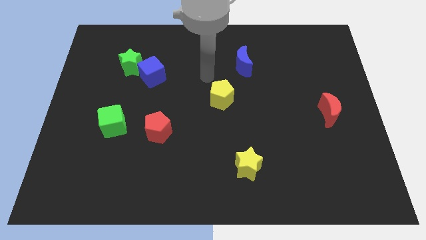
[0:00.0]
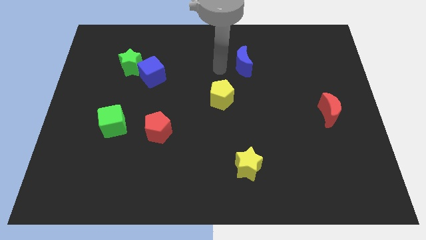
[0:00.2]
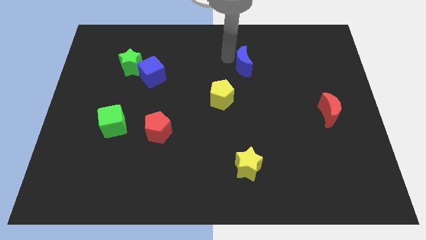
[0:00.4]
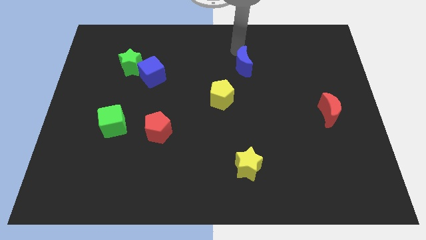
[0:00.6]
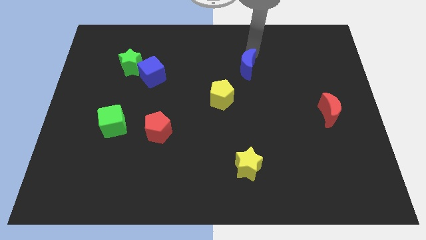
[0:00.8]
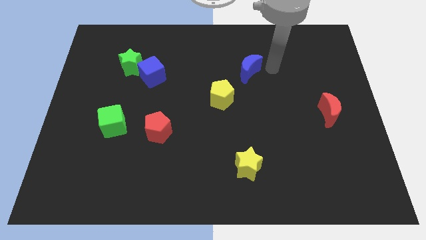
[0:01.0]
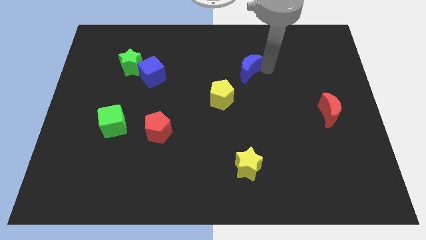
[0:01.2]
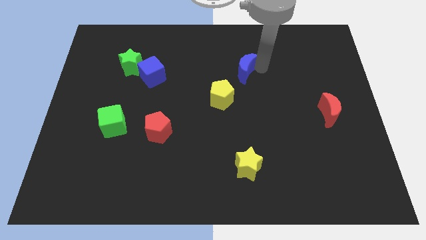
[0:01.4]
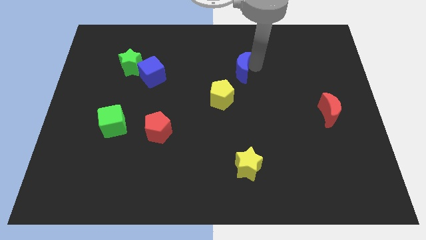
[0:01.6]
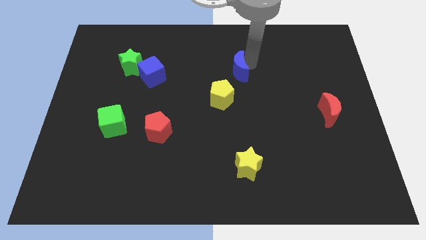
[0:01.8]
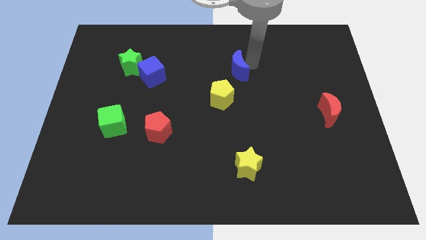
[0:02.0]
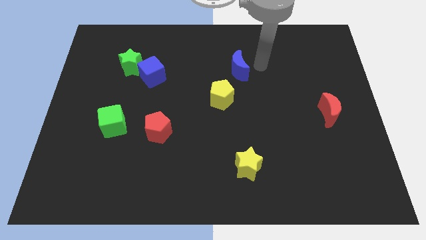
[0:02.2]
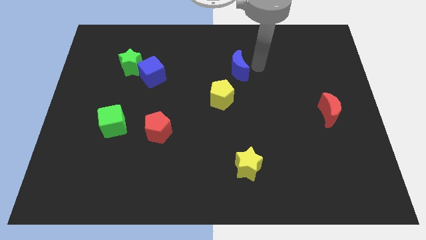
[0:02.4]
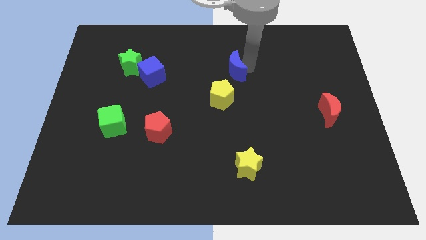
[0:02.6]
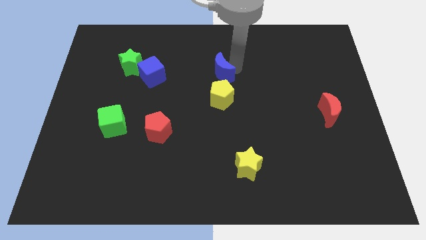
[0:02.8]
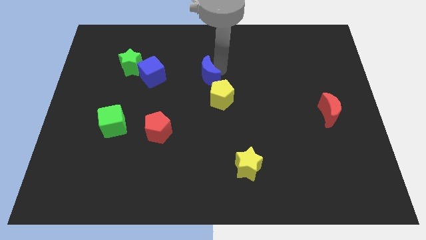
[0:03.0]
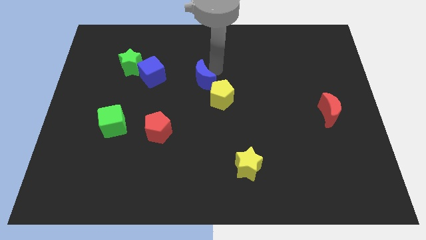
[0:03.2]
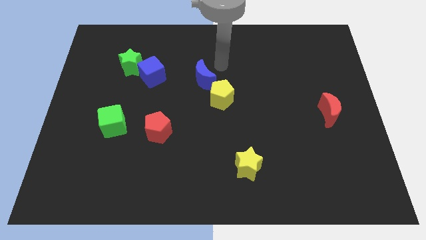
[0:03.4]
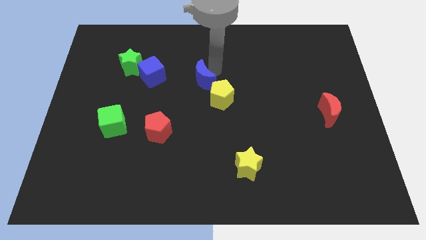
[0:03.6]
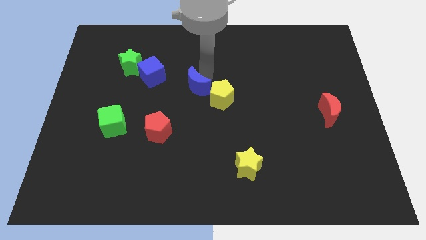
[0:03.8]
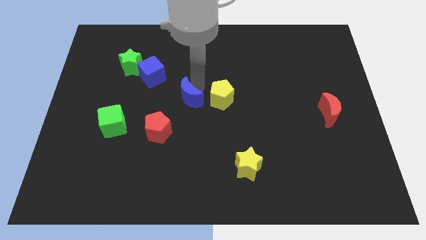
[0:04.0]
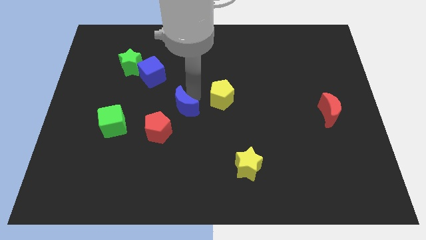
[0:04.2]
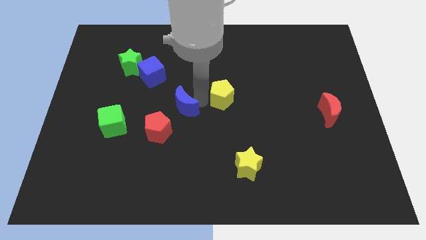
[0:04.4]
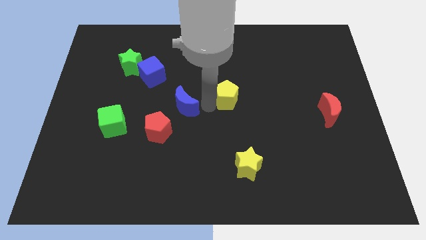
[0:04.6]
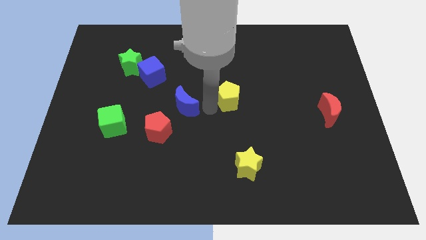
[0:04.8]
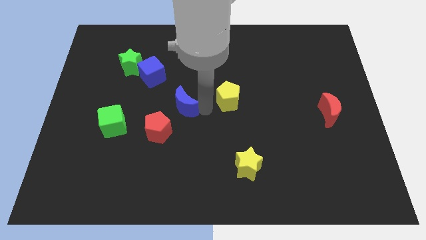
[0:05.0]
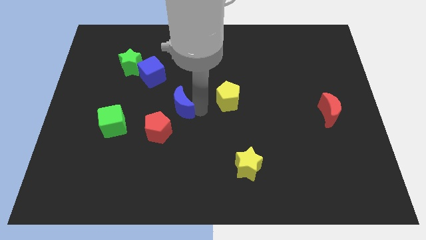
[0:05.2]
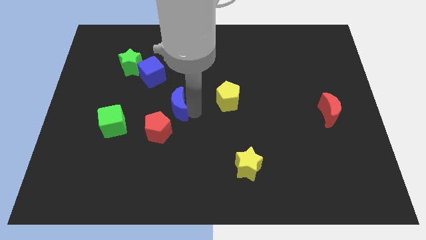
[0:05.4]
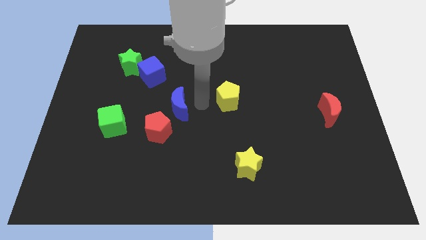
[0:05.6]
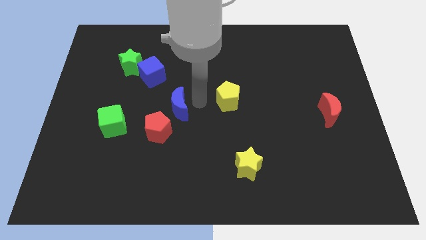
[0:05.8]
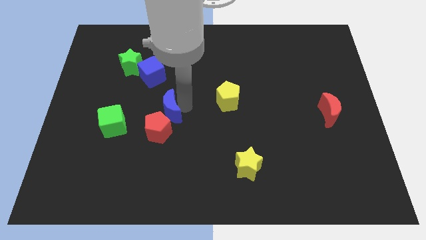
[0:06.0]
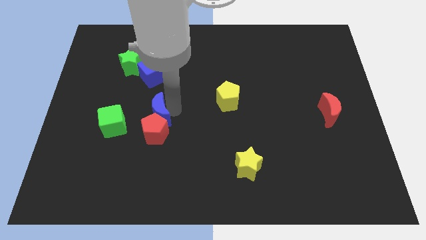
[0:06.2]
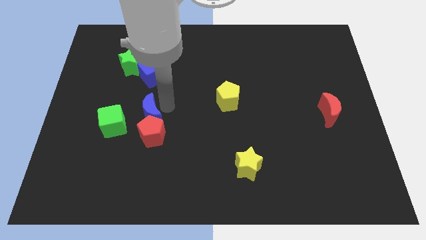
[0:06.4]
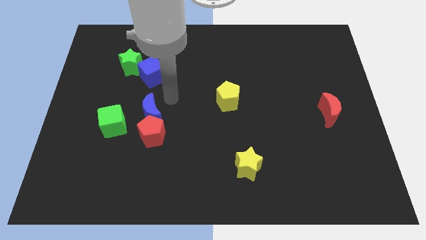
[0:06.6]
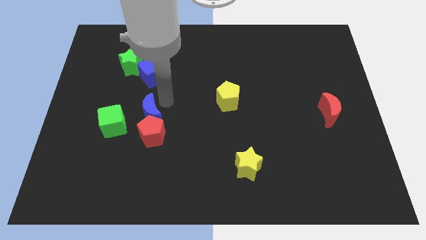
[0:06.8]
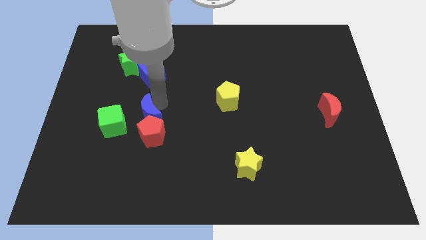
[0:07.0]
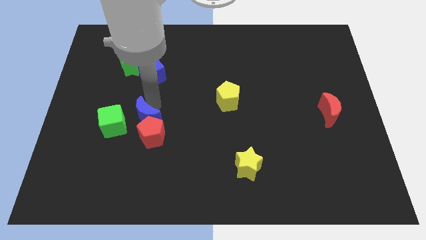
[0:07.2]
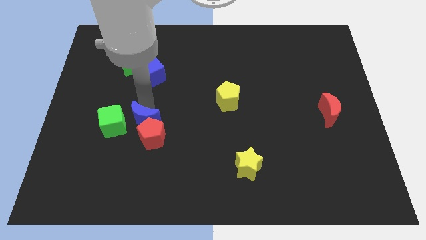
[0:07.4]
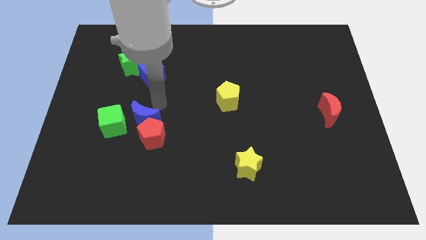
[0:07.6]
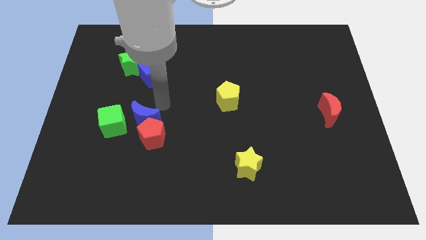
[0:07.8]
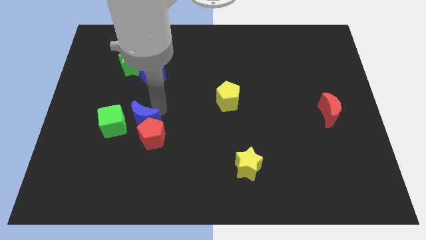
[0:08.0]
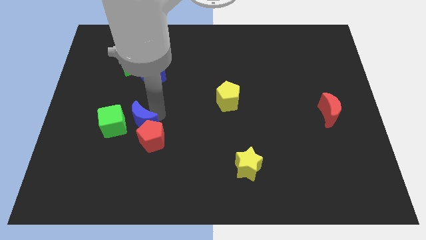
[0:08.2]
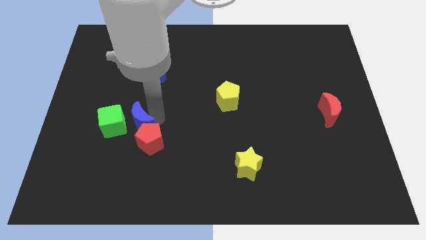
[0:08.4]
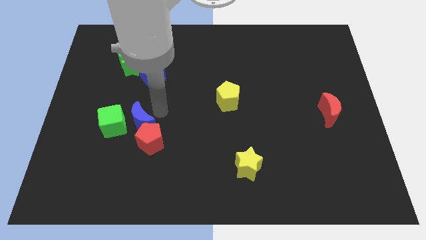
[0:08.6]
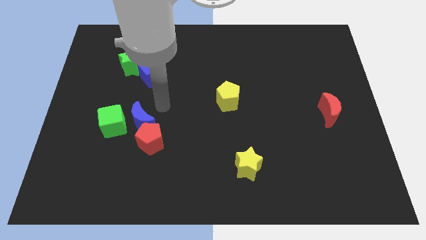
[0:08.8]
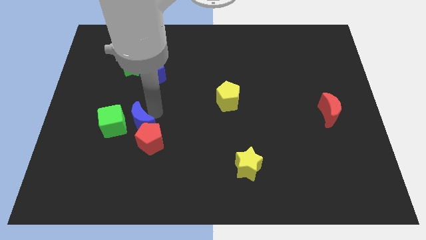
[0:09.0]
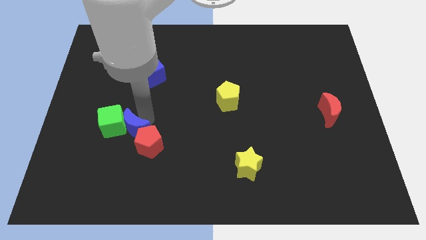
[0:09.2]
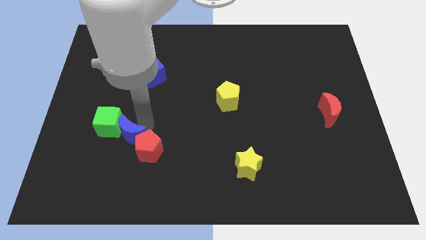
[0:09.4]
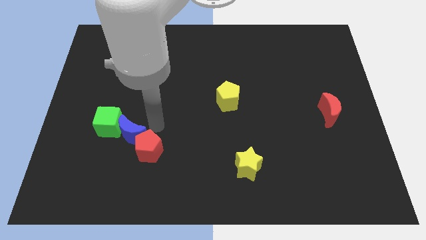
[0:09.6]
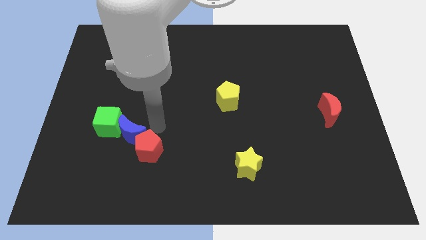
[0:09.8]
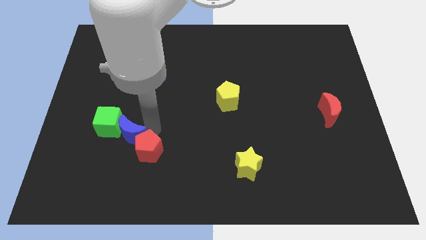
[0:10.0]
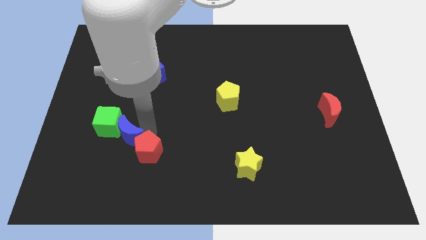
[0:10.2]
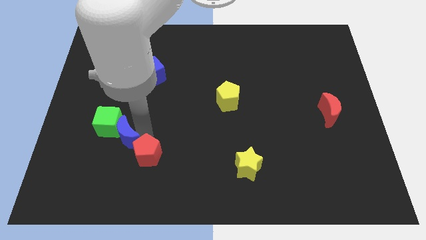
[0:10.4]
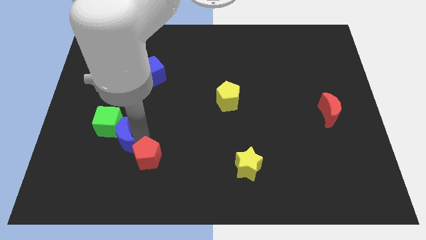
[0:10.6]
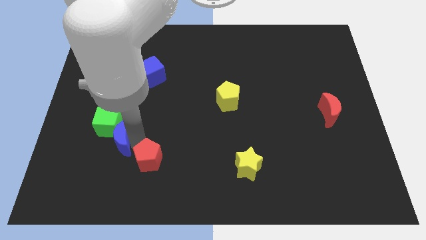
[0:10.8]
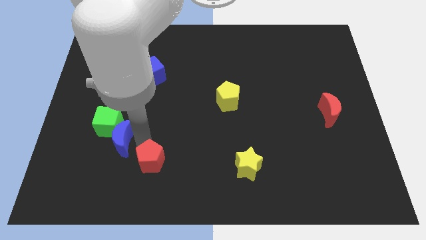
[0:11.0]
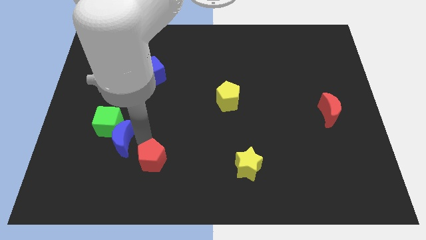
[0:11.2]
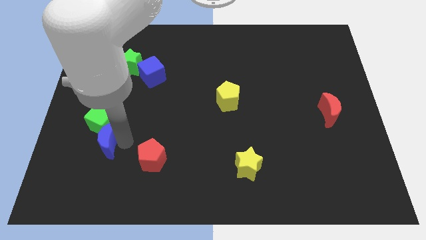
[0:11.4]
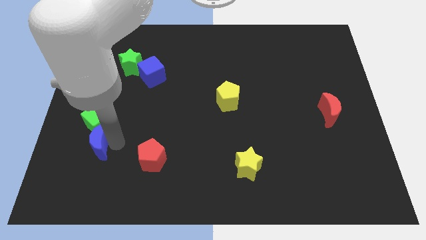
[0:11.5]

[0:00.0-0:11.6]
push the blue moon to the bottom left of the green cube

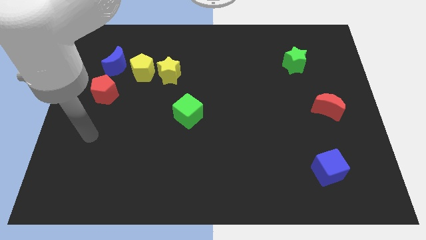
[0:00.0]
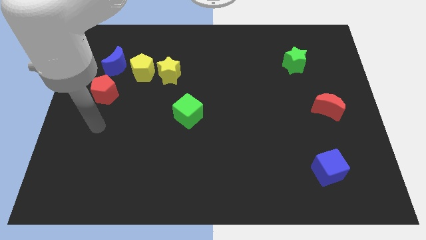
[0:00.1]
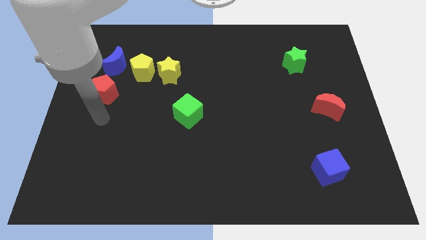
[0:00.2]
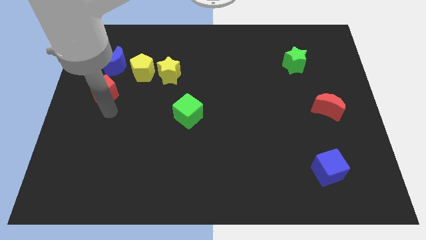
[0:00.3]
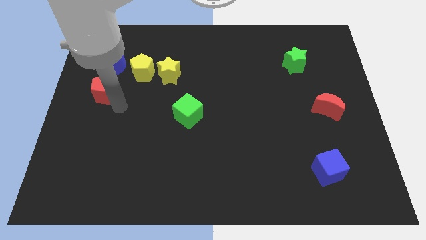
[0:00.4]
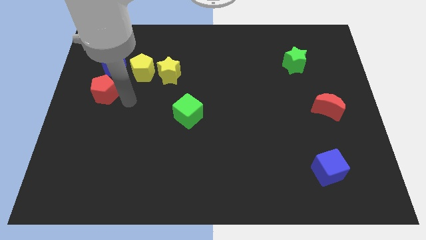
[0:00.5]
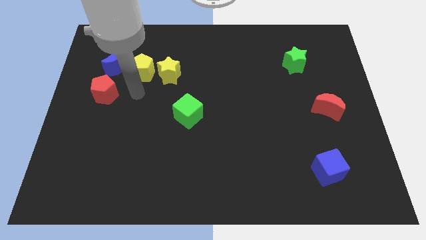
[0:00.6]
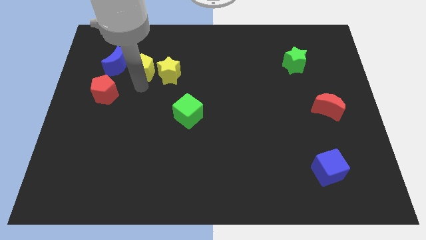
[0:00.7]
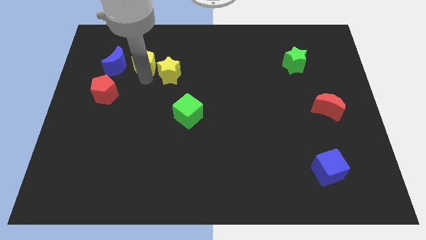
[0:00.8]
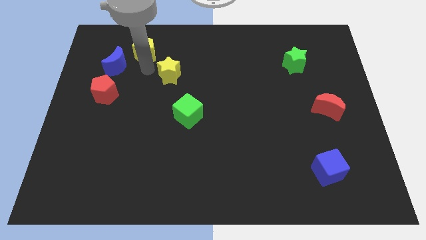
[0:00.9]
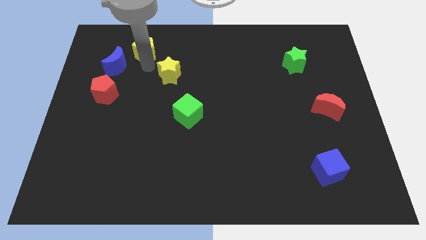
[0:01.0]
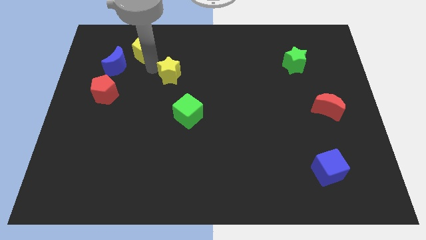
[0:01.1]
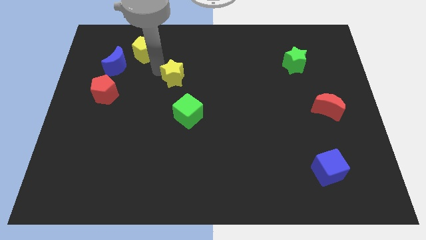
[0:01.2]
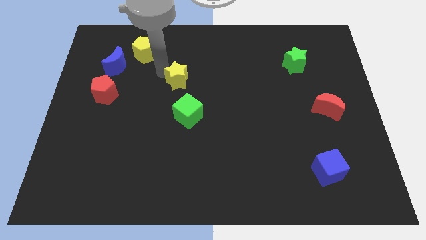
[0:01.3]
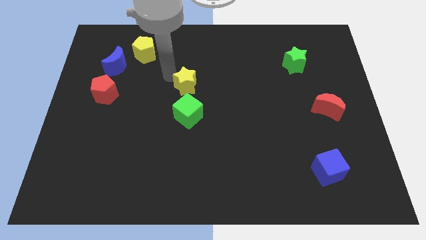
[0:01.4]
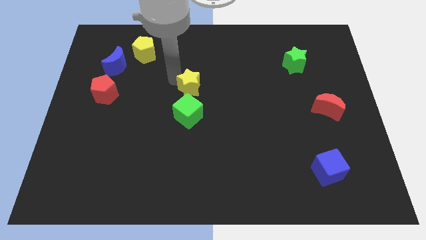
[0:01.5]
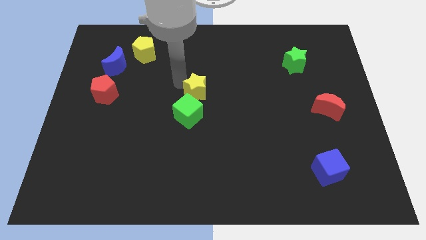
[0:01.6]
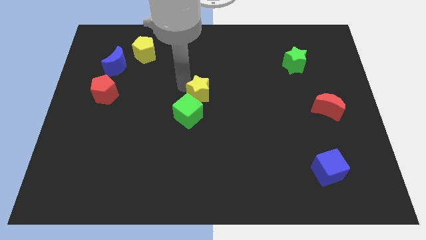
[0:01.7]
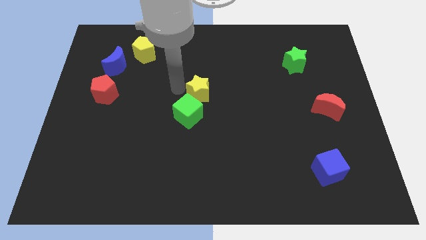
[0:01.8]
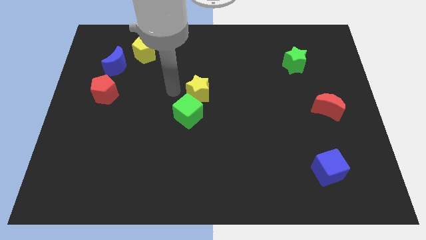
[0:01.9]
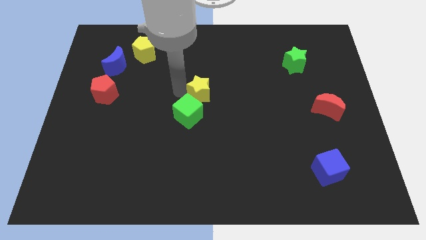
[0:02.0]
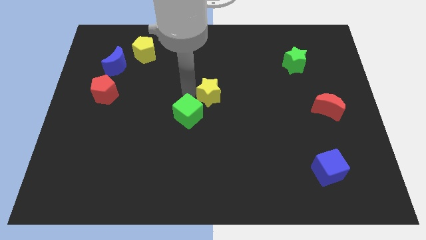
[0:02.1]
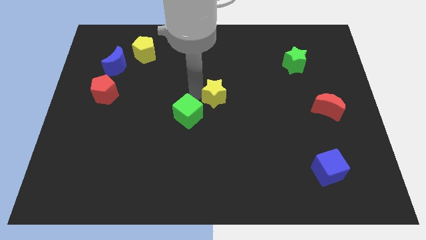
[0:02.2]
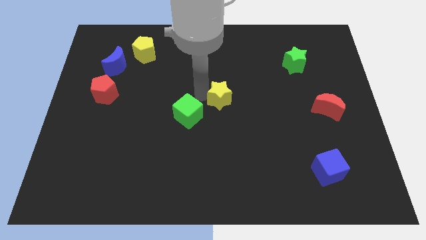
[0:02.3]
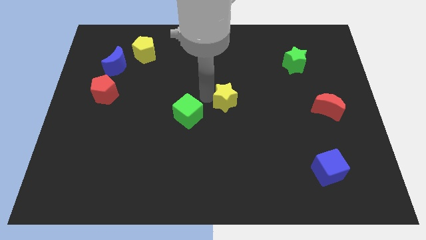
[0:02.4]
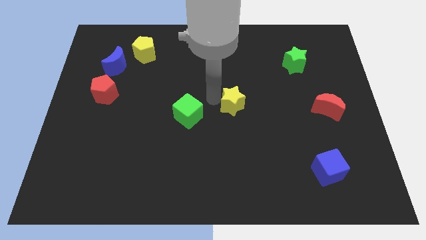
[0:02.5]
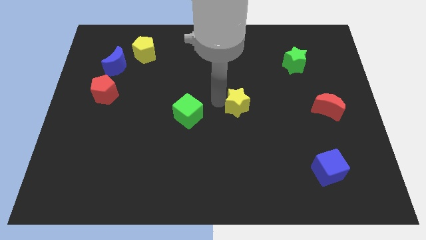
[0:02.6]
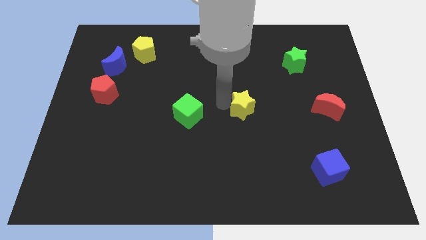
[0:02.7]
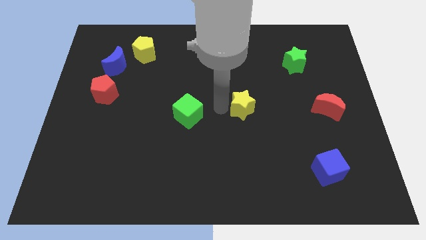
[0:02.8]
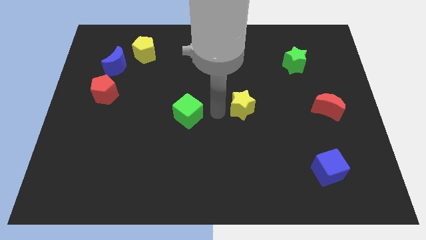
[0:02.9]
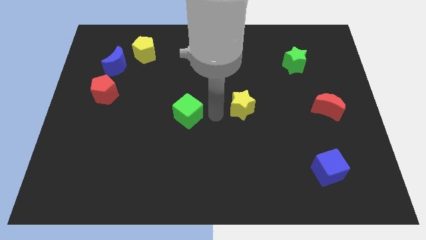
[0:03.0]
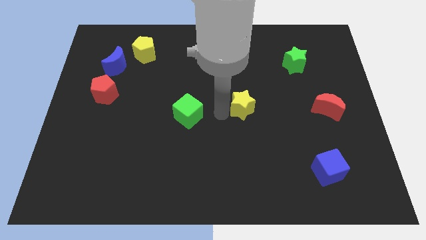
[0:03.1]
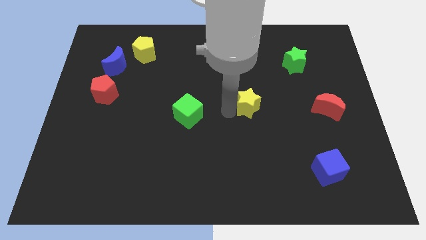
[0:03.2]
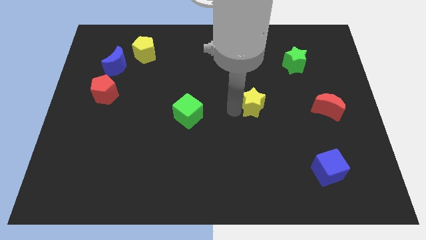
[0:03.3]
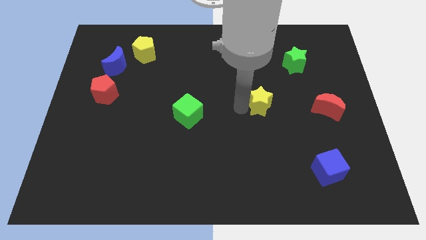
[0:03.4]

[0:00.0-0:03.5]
push the yellow star just left of the red moon
